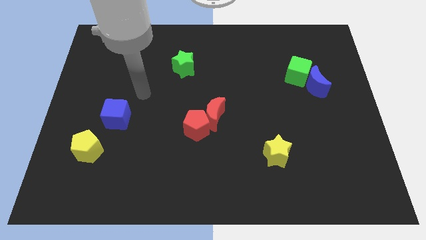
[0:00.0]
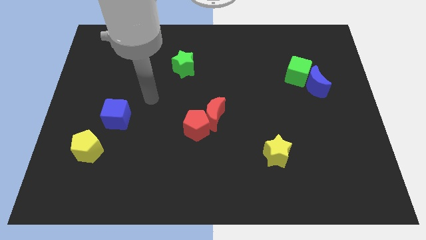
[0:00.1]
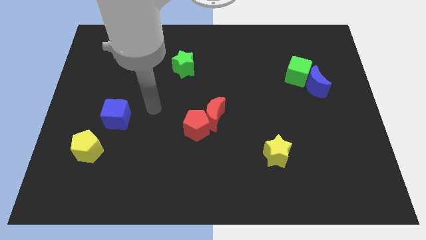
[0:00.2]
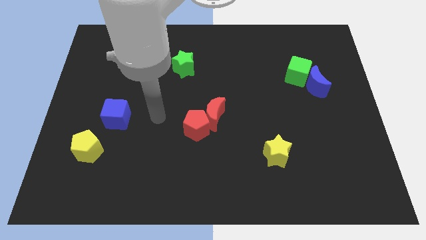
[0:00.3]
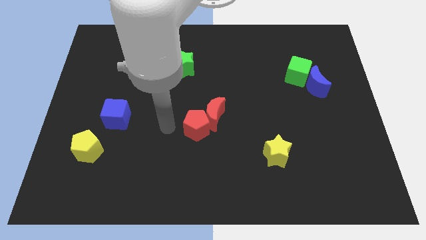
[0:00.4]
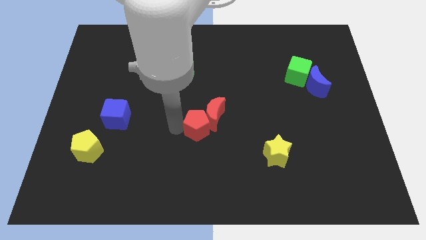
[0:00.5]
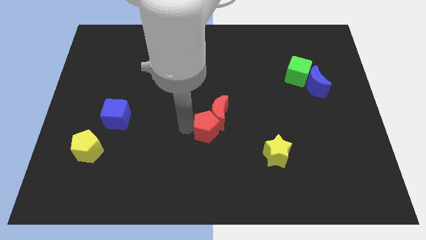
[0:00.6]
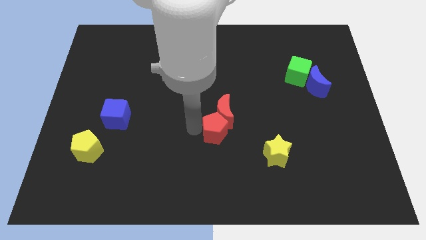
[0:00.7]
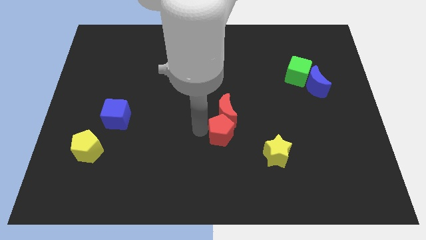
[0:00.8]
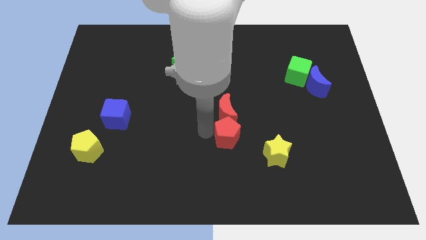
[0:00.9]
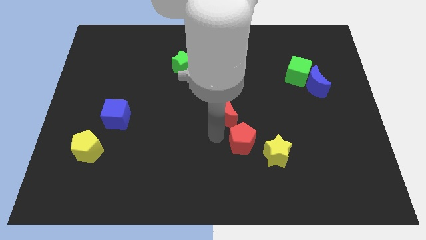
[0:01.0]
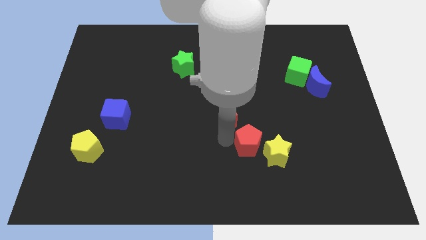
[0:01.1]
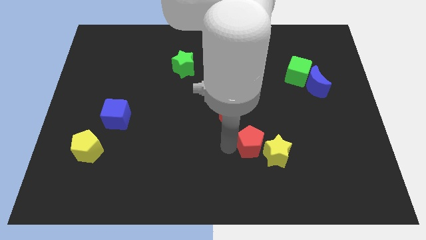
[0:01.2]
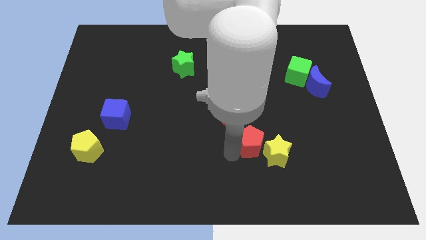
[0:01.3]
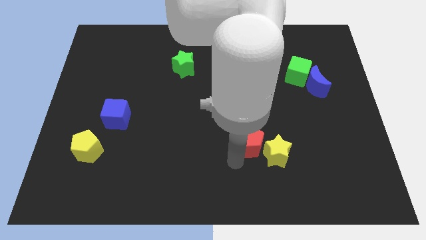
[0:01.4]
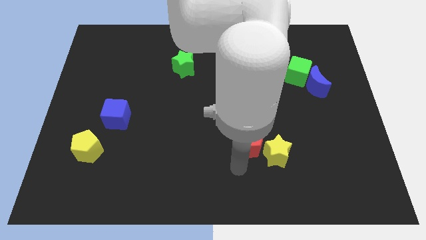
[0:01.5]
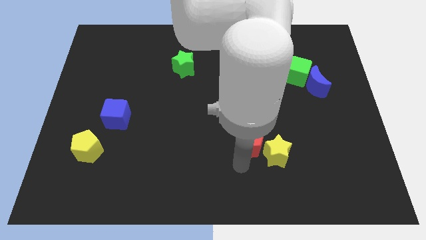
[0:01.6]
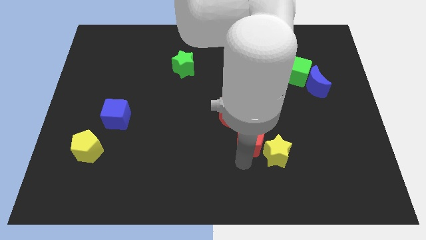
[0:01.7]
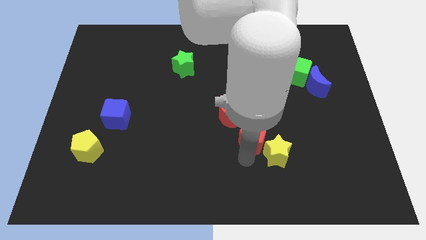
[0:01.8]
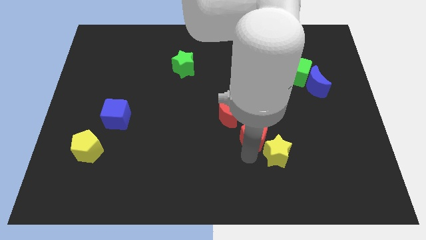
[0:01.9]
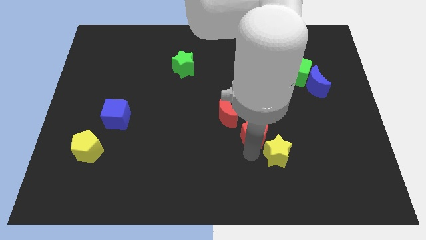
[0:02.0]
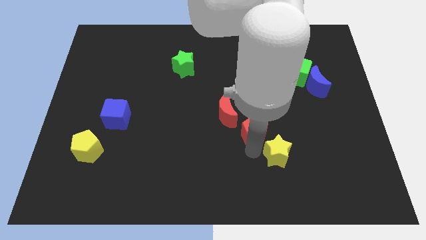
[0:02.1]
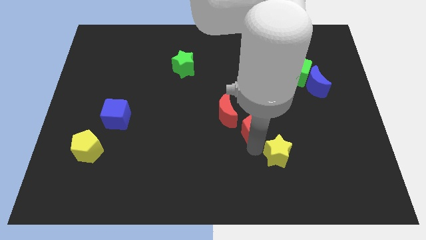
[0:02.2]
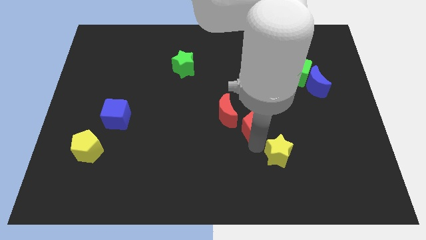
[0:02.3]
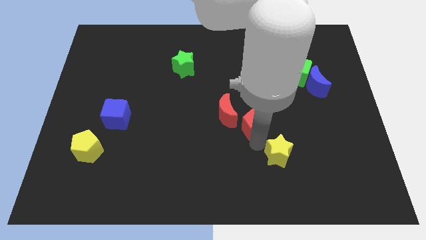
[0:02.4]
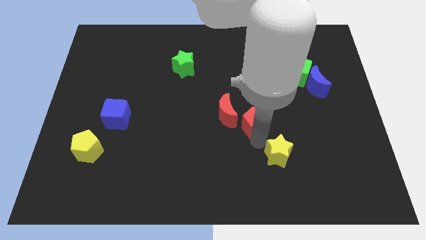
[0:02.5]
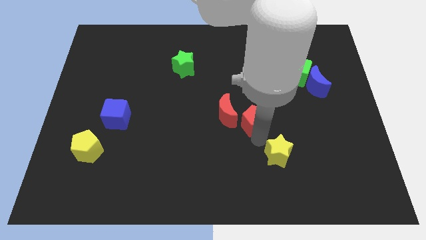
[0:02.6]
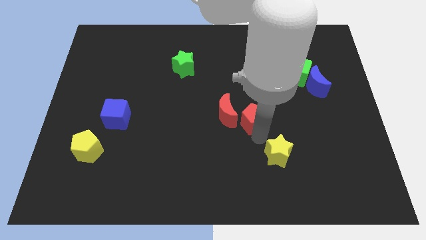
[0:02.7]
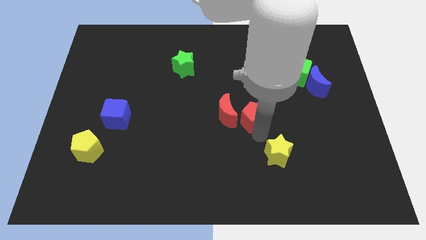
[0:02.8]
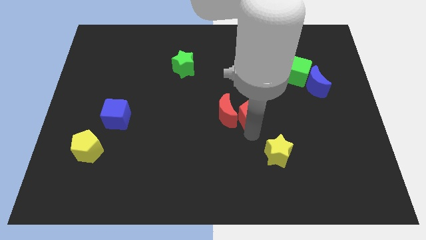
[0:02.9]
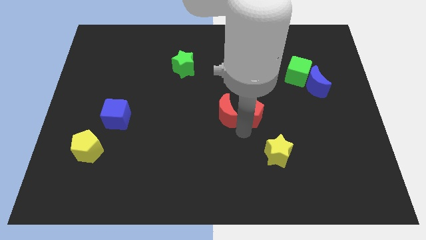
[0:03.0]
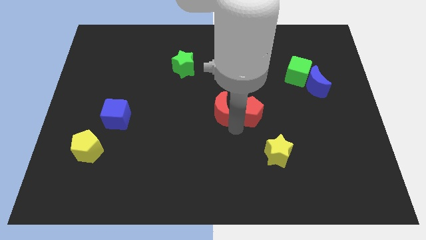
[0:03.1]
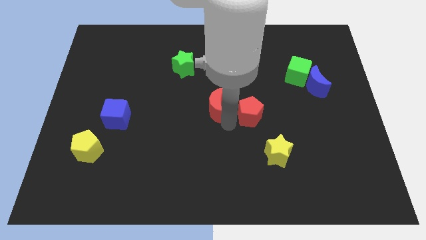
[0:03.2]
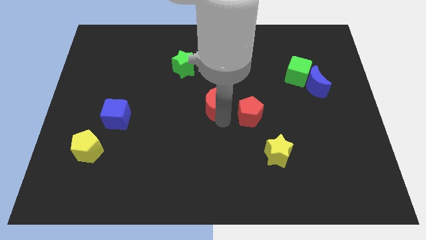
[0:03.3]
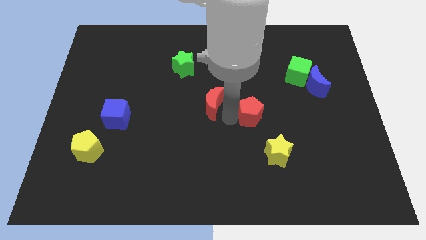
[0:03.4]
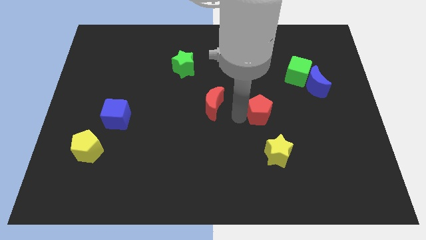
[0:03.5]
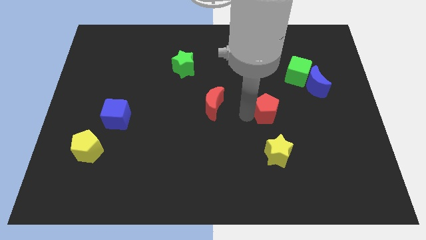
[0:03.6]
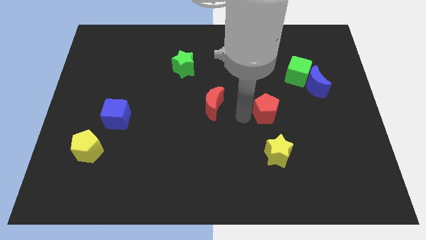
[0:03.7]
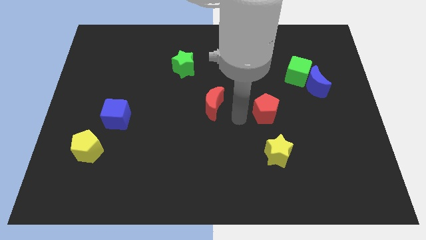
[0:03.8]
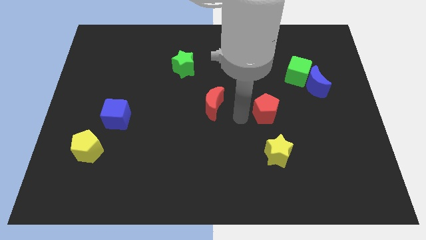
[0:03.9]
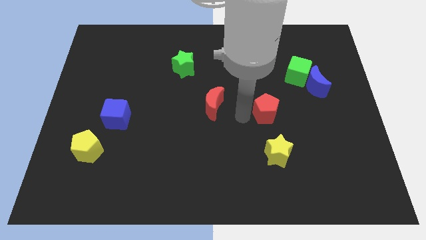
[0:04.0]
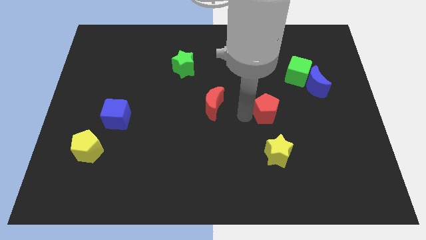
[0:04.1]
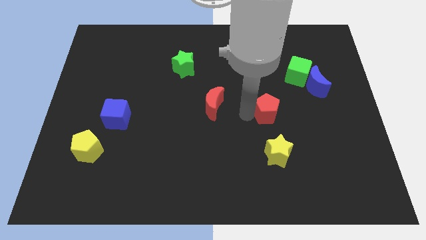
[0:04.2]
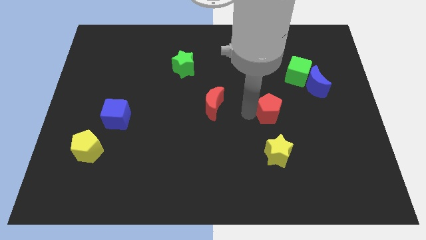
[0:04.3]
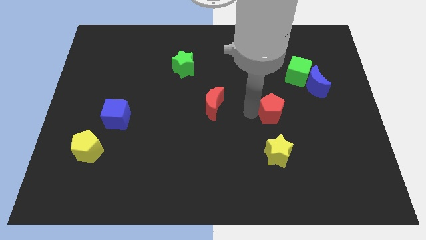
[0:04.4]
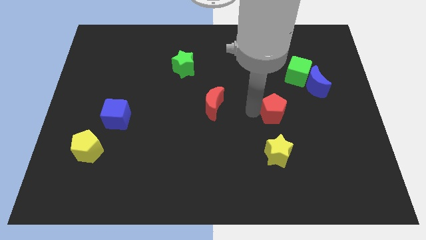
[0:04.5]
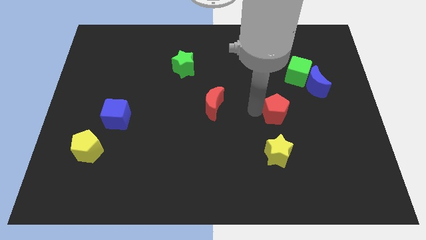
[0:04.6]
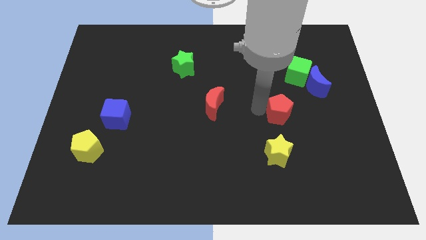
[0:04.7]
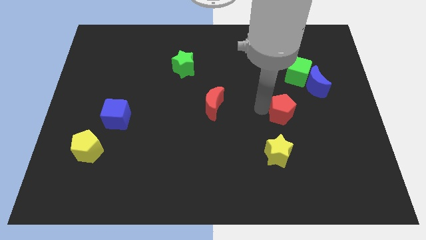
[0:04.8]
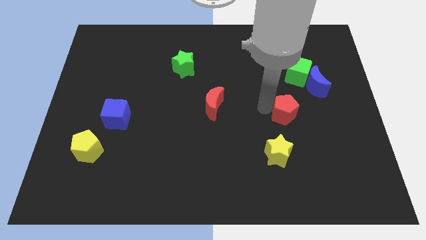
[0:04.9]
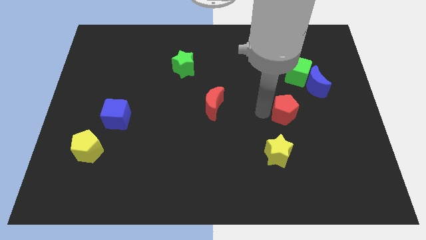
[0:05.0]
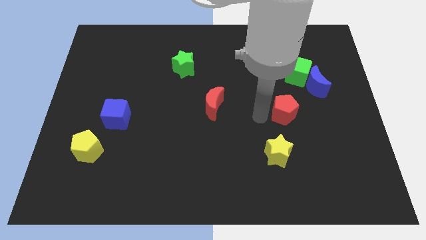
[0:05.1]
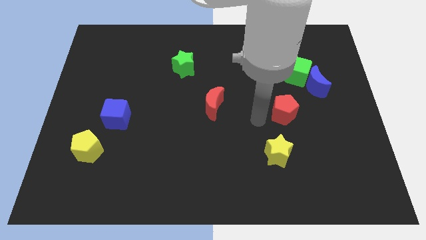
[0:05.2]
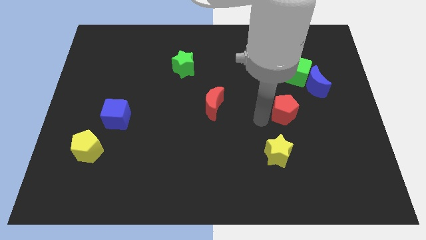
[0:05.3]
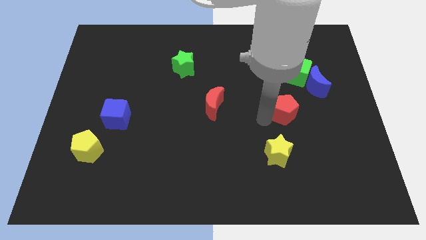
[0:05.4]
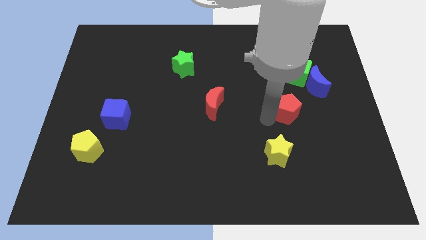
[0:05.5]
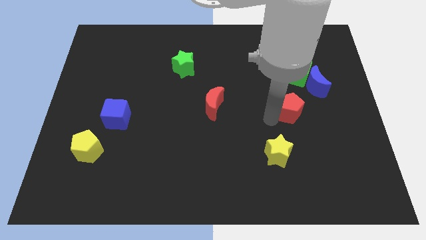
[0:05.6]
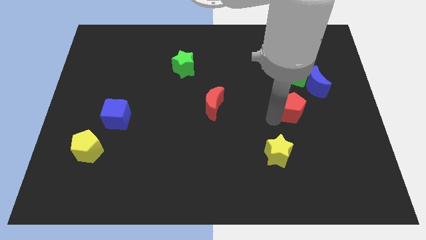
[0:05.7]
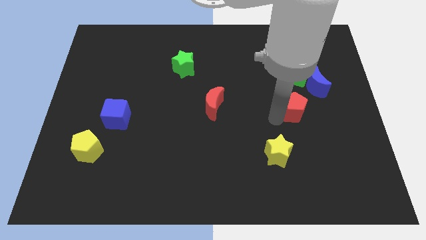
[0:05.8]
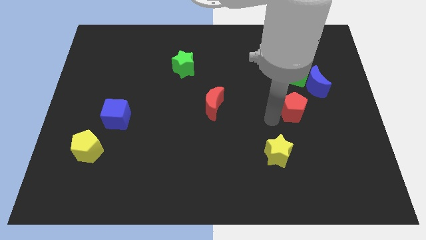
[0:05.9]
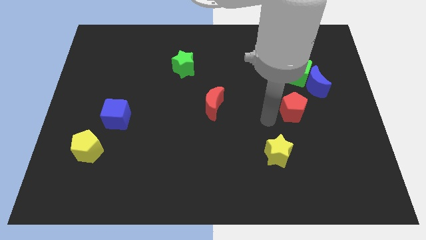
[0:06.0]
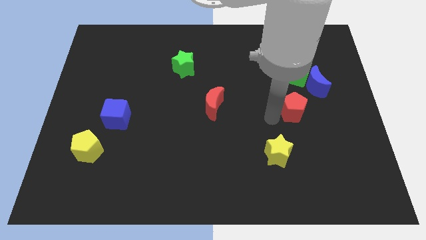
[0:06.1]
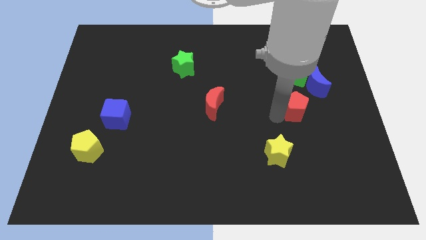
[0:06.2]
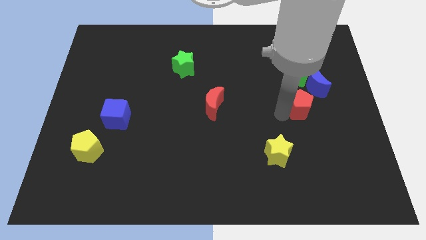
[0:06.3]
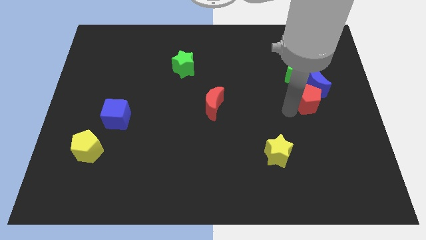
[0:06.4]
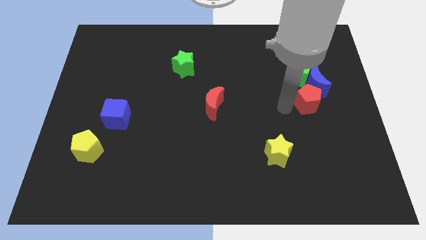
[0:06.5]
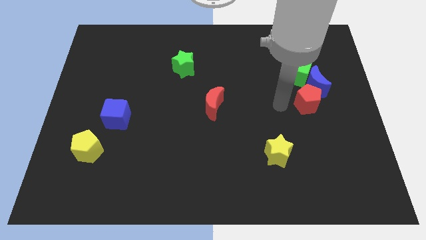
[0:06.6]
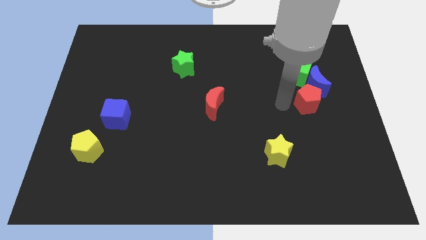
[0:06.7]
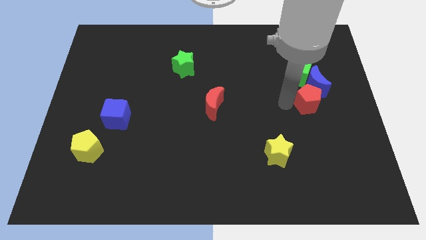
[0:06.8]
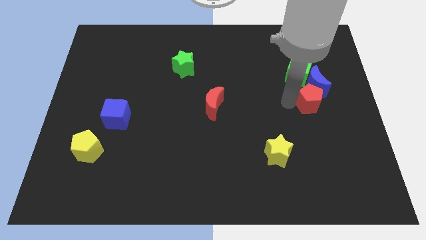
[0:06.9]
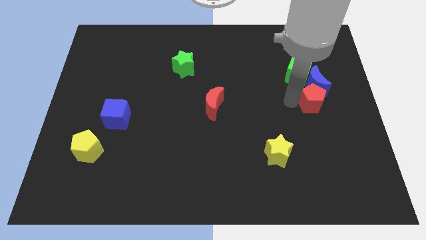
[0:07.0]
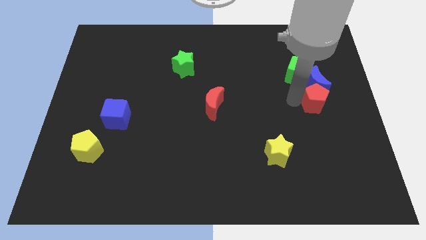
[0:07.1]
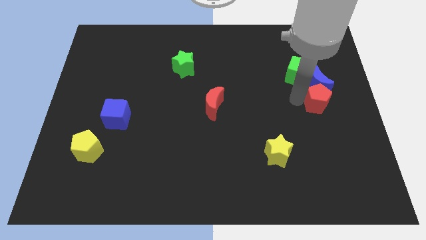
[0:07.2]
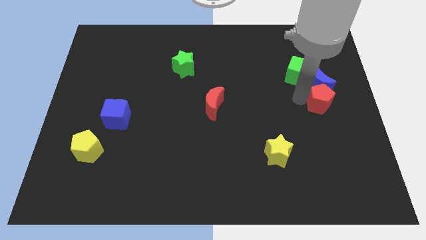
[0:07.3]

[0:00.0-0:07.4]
put the red pentagon to the right side of the board

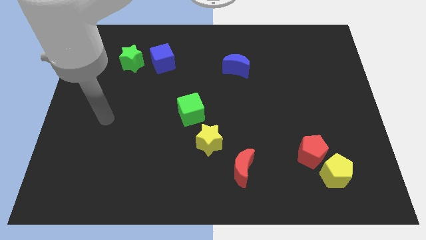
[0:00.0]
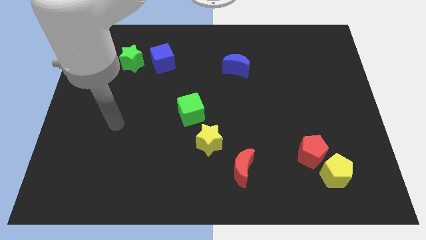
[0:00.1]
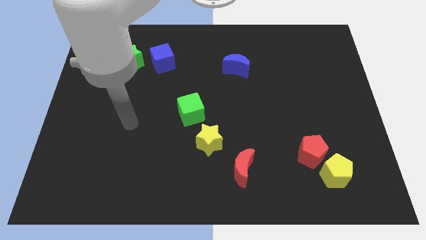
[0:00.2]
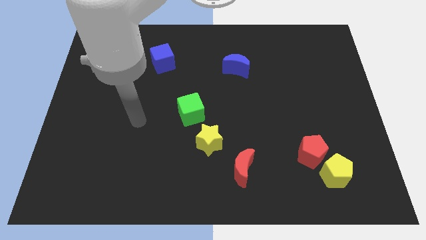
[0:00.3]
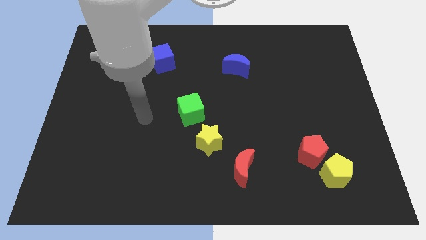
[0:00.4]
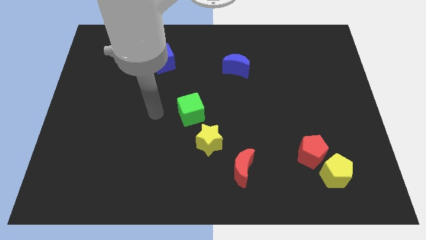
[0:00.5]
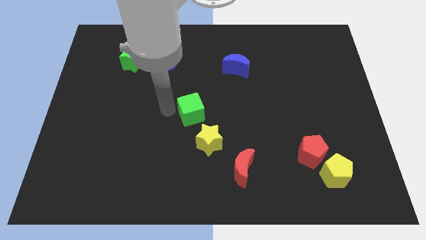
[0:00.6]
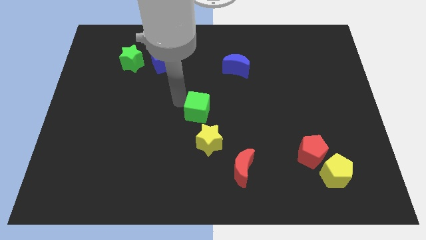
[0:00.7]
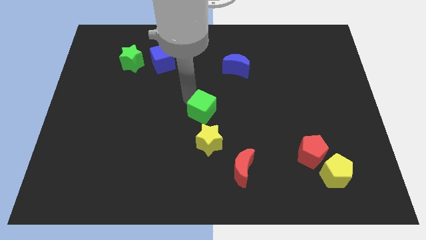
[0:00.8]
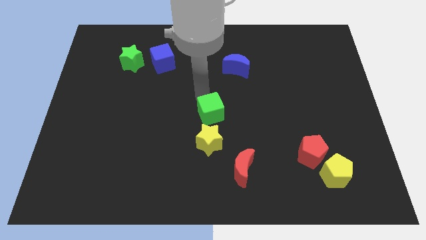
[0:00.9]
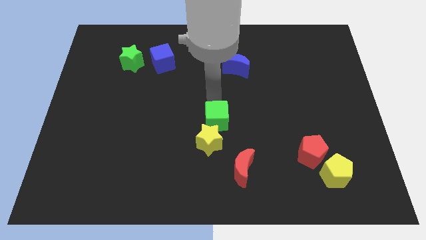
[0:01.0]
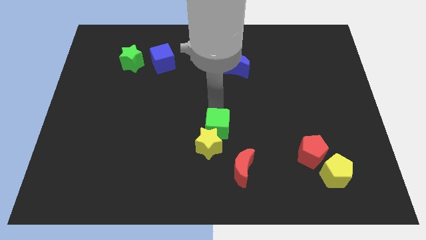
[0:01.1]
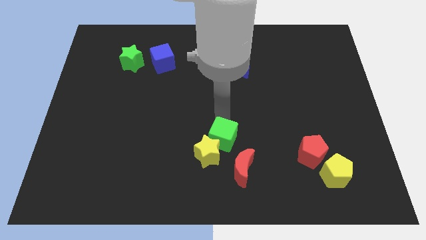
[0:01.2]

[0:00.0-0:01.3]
put the yellow star to the bottom side
